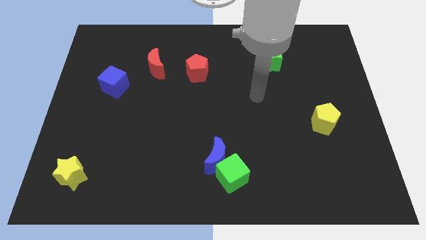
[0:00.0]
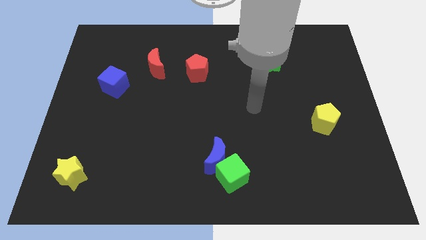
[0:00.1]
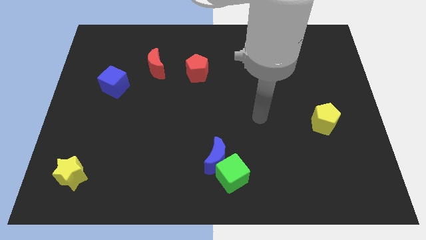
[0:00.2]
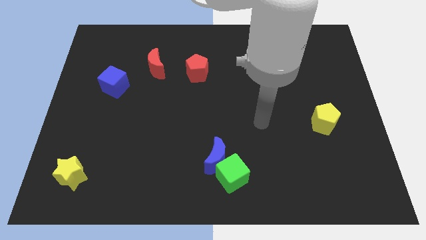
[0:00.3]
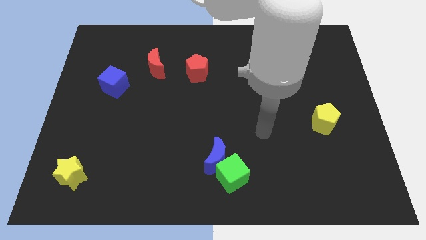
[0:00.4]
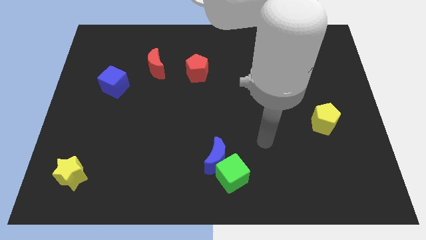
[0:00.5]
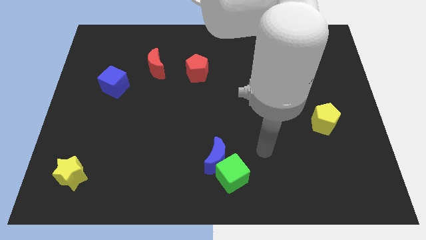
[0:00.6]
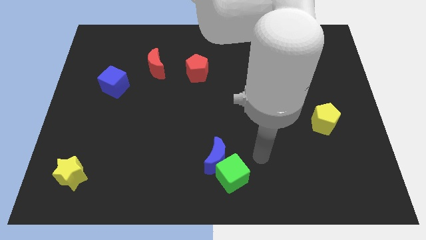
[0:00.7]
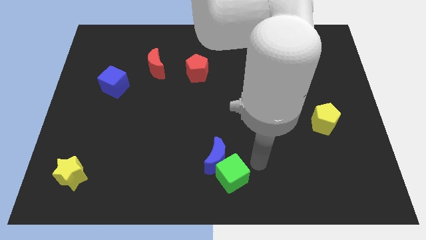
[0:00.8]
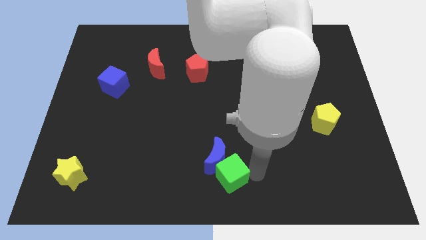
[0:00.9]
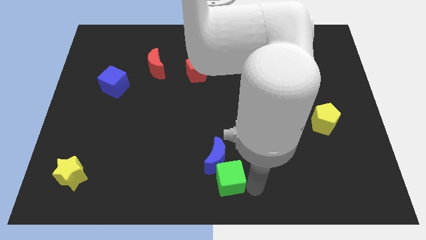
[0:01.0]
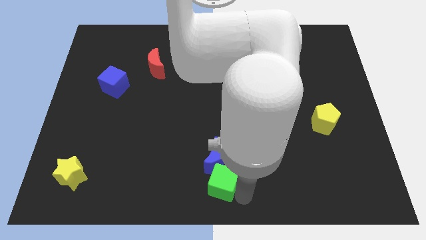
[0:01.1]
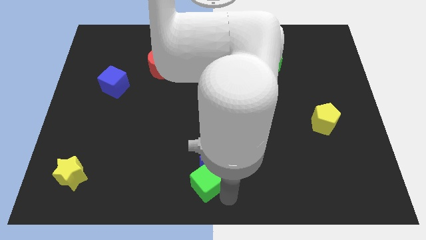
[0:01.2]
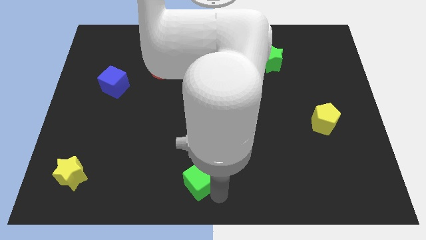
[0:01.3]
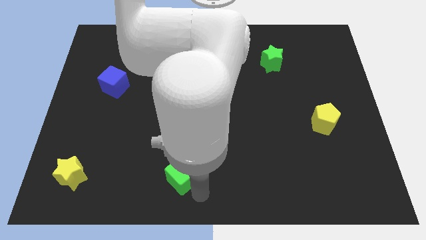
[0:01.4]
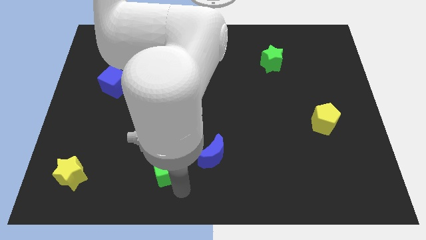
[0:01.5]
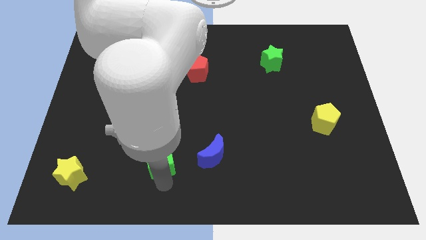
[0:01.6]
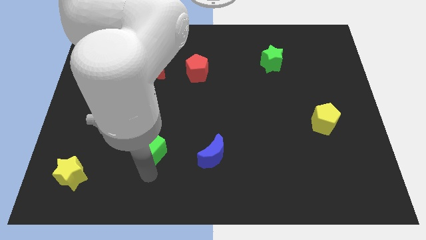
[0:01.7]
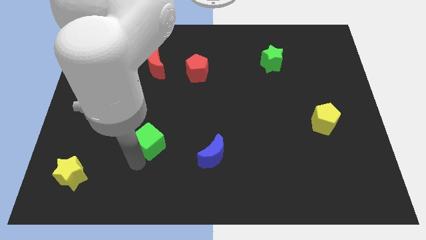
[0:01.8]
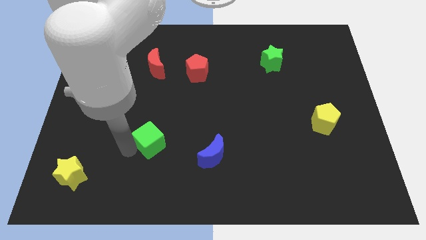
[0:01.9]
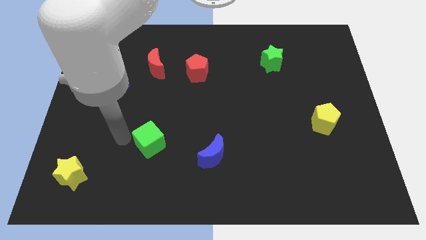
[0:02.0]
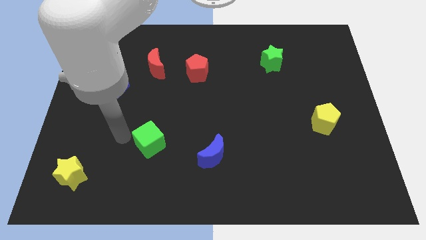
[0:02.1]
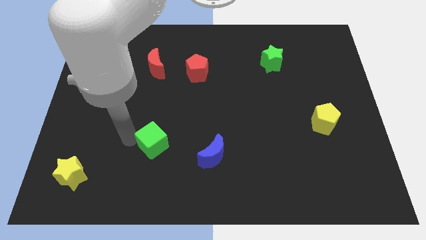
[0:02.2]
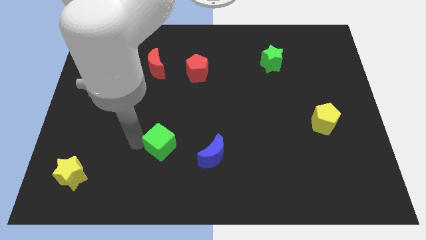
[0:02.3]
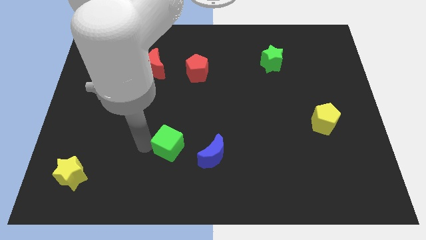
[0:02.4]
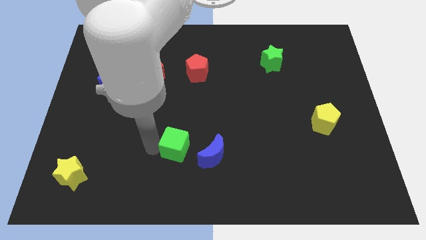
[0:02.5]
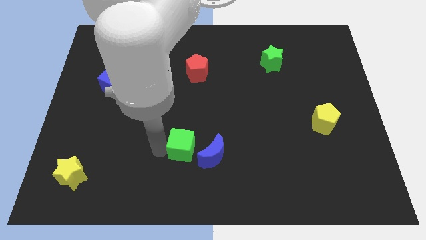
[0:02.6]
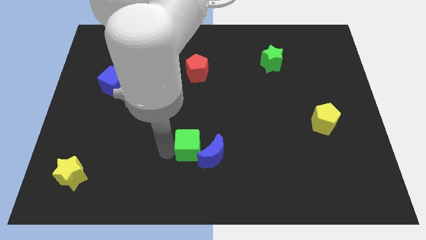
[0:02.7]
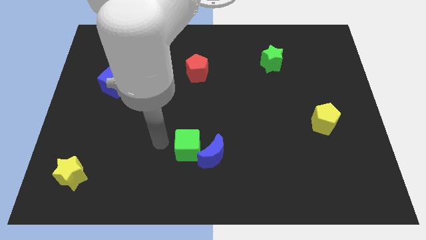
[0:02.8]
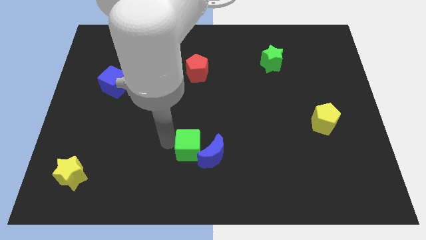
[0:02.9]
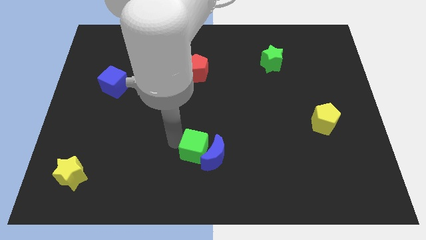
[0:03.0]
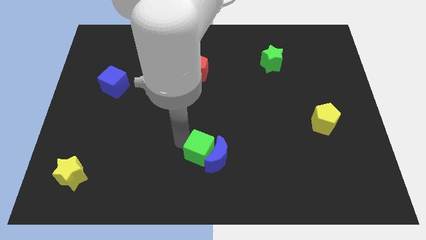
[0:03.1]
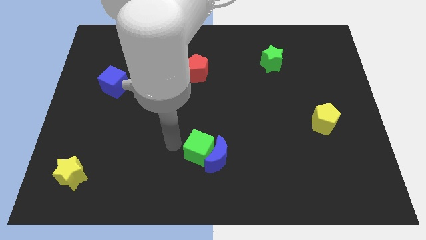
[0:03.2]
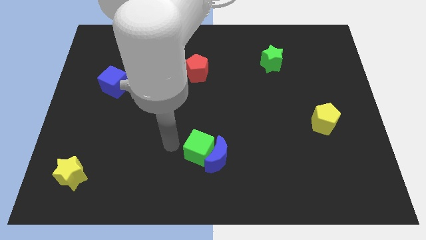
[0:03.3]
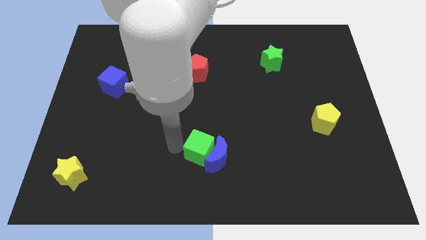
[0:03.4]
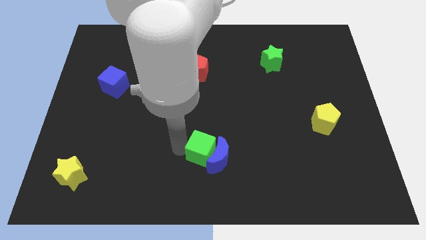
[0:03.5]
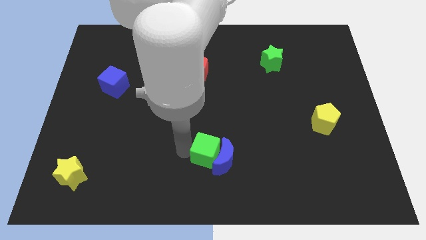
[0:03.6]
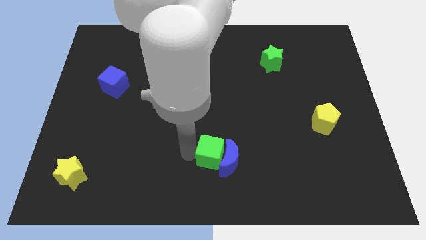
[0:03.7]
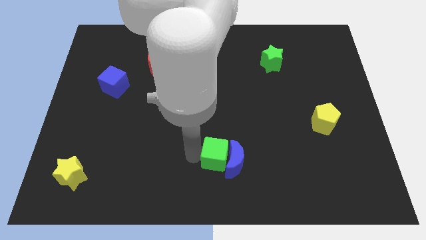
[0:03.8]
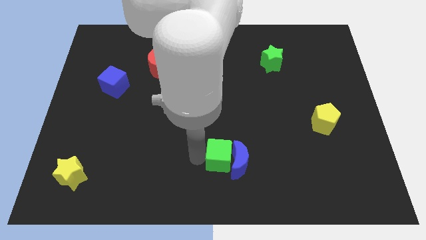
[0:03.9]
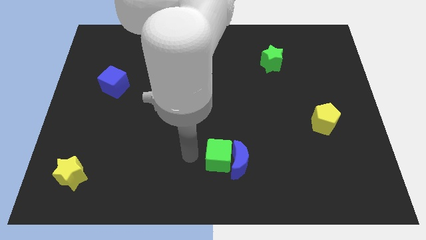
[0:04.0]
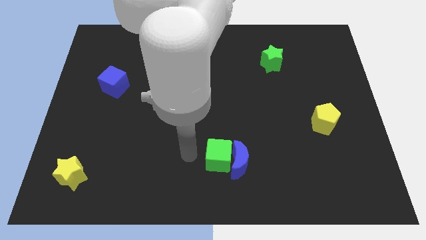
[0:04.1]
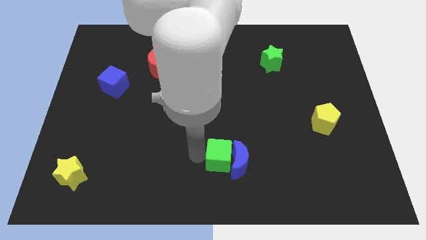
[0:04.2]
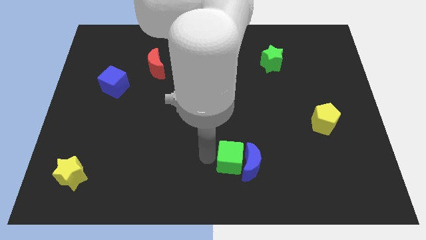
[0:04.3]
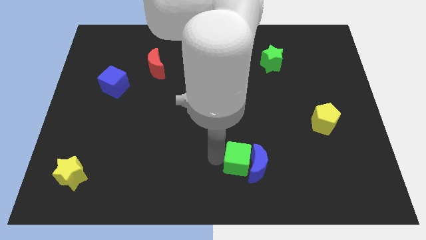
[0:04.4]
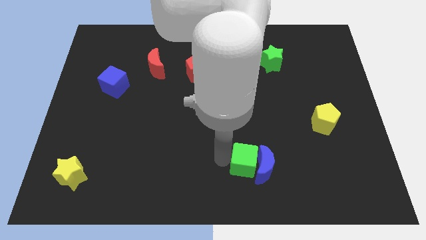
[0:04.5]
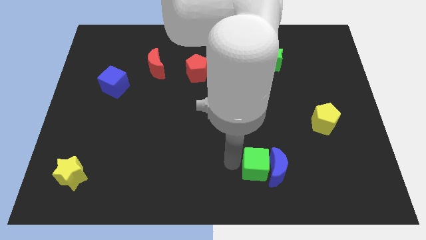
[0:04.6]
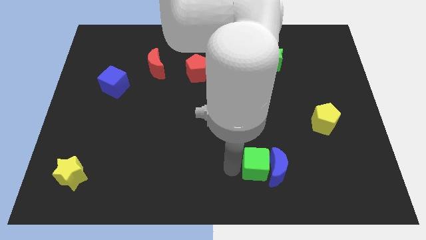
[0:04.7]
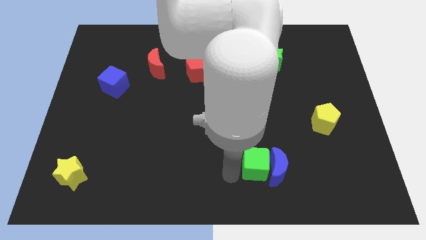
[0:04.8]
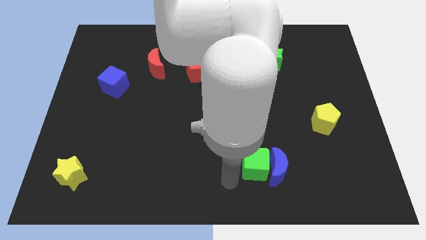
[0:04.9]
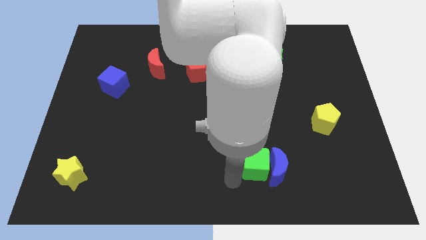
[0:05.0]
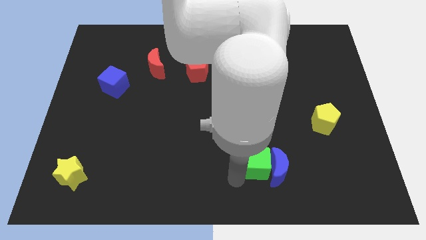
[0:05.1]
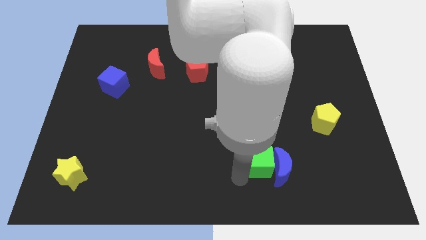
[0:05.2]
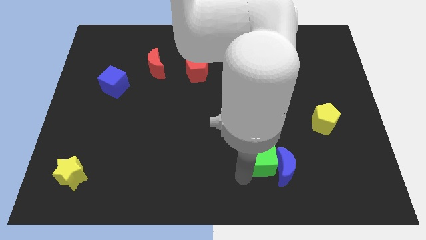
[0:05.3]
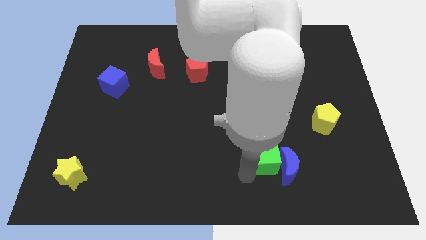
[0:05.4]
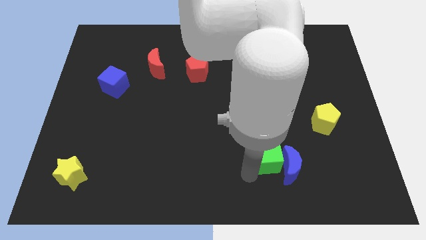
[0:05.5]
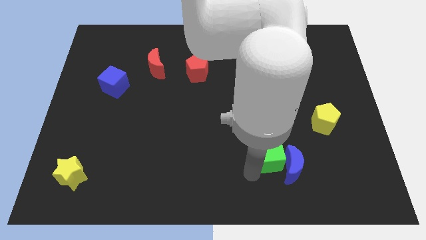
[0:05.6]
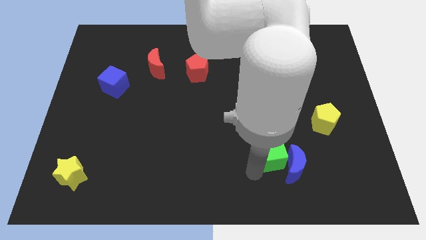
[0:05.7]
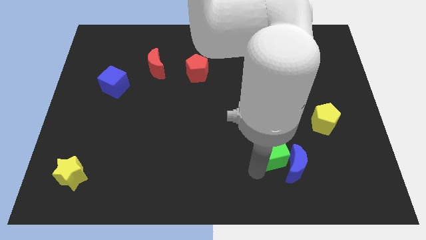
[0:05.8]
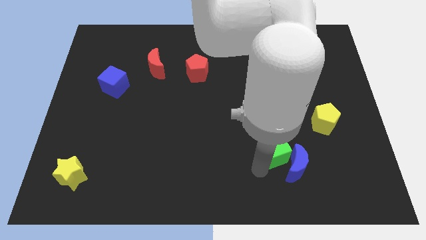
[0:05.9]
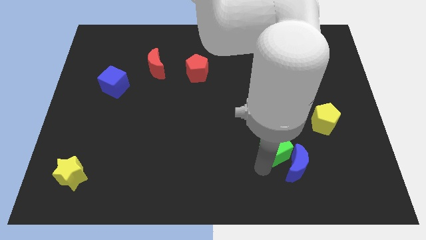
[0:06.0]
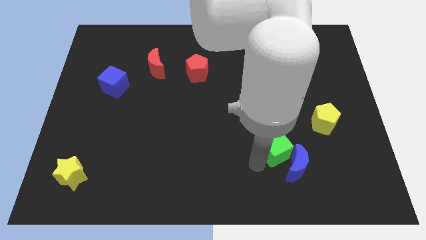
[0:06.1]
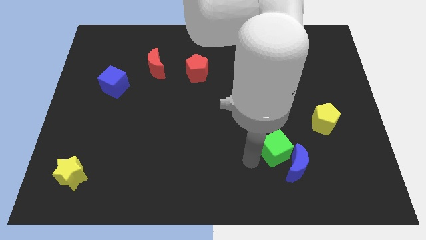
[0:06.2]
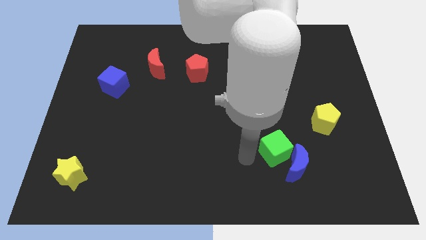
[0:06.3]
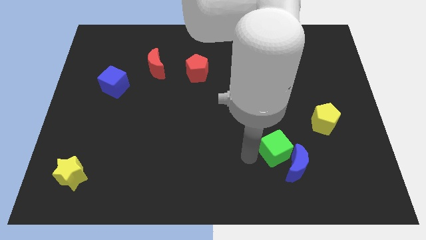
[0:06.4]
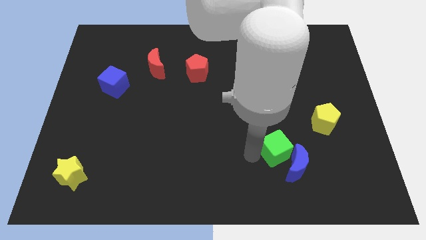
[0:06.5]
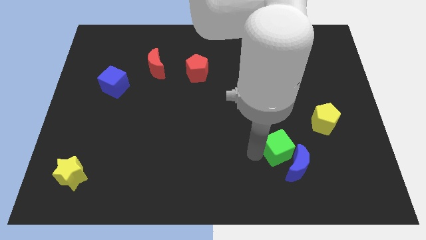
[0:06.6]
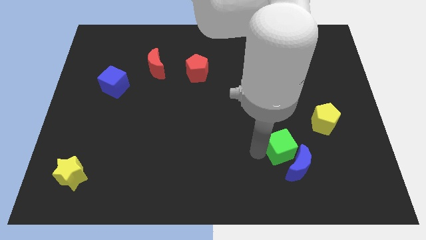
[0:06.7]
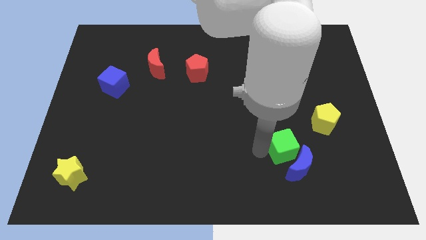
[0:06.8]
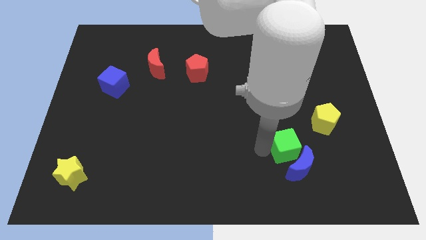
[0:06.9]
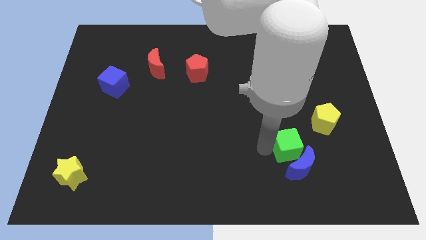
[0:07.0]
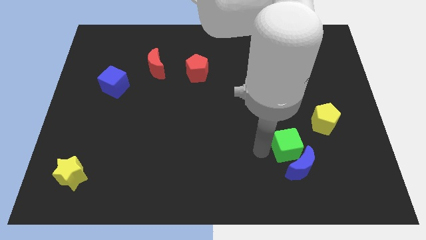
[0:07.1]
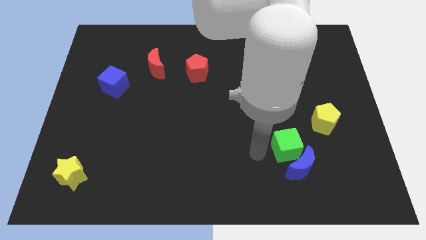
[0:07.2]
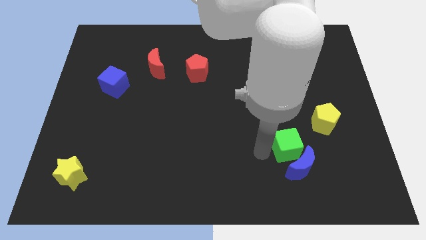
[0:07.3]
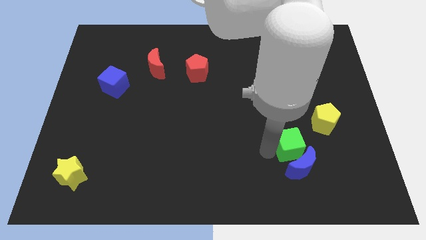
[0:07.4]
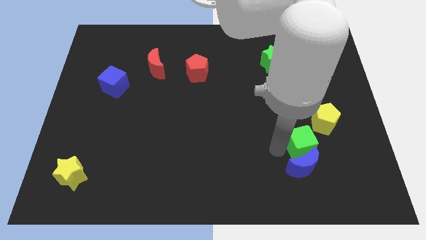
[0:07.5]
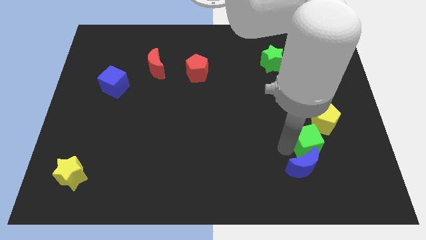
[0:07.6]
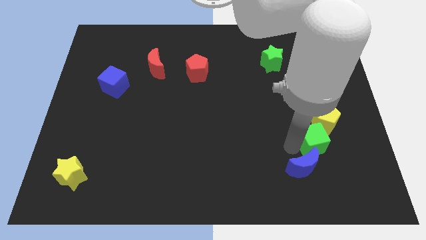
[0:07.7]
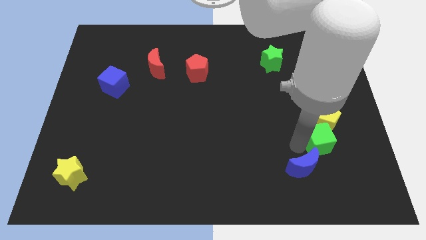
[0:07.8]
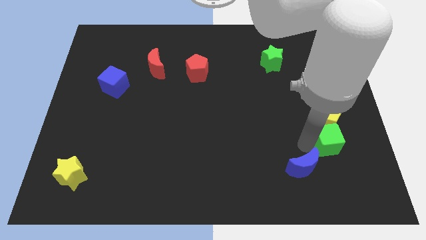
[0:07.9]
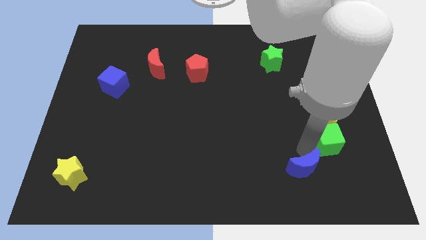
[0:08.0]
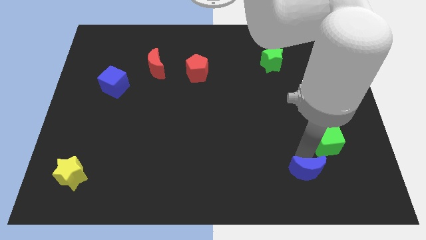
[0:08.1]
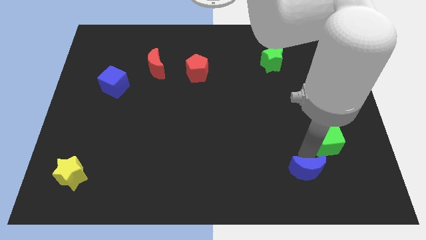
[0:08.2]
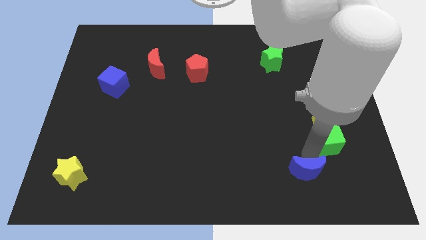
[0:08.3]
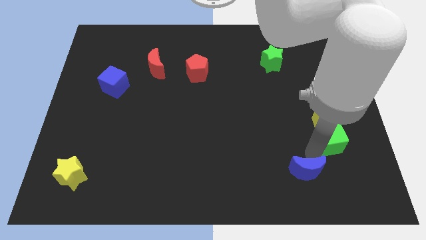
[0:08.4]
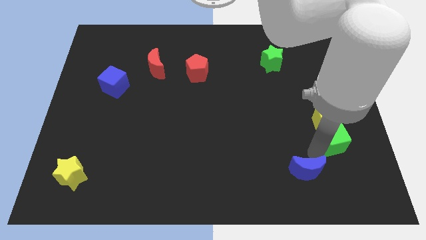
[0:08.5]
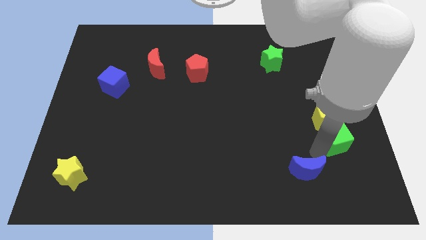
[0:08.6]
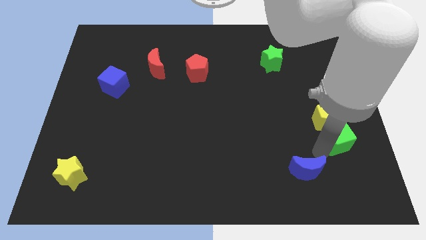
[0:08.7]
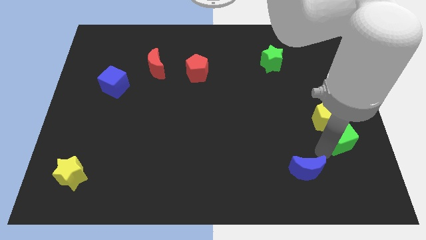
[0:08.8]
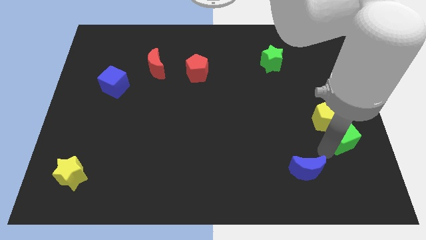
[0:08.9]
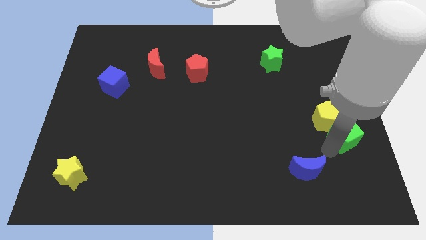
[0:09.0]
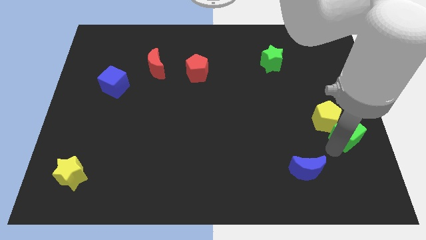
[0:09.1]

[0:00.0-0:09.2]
slide the green cube to the right side of the board
